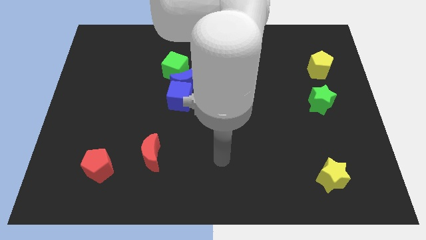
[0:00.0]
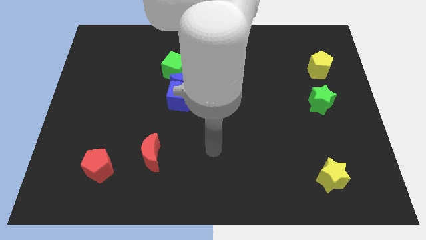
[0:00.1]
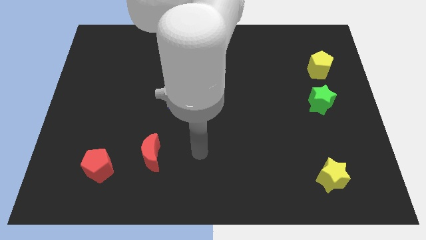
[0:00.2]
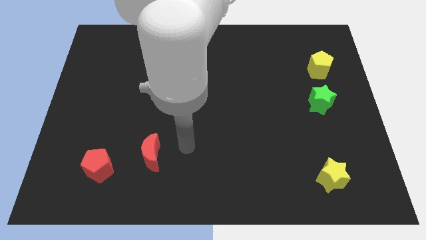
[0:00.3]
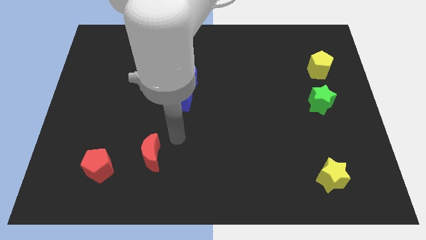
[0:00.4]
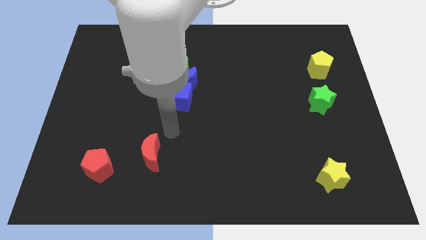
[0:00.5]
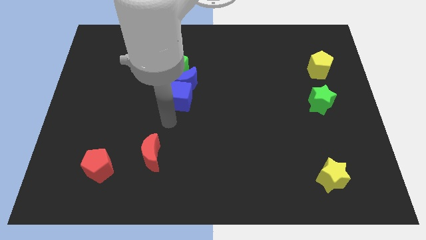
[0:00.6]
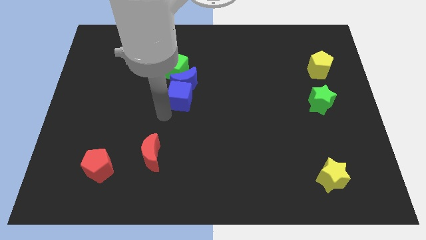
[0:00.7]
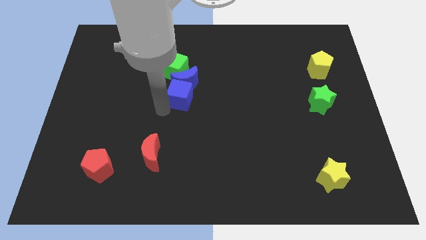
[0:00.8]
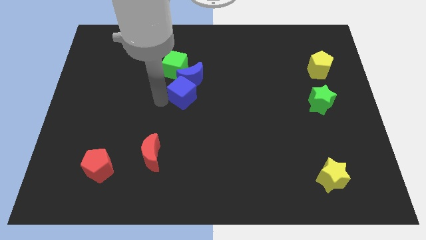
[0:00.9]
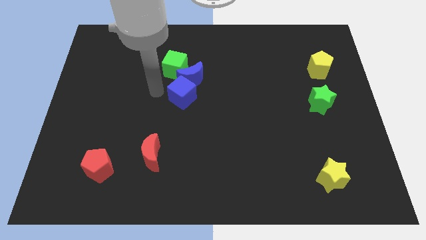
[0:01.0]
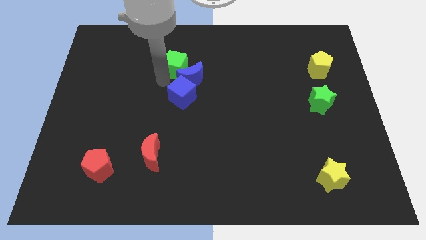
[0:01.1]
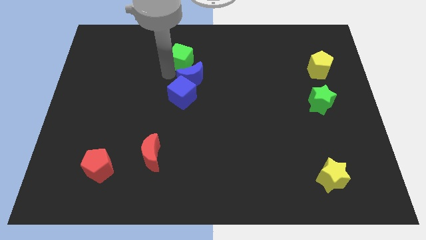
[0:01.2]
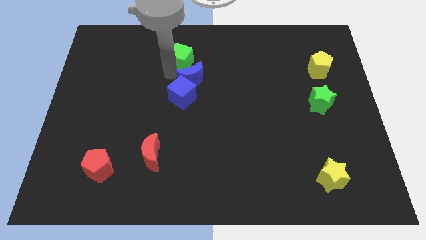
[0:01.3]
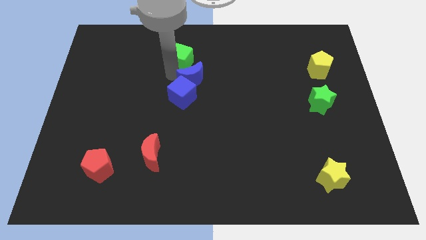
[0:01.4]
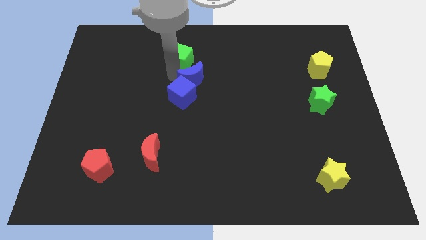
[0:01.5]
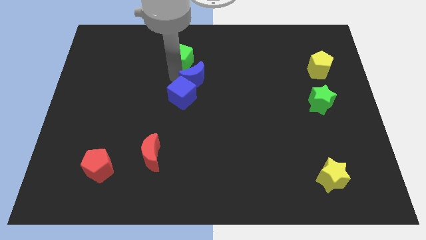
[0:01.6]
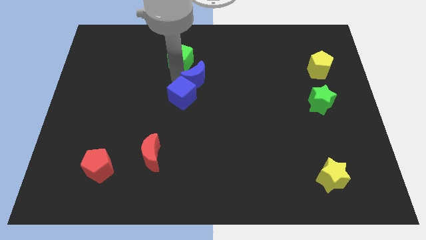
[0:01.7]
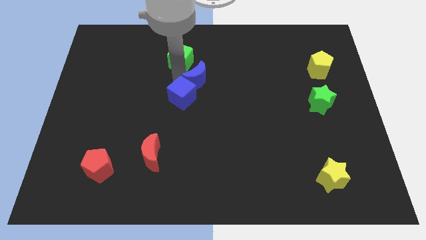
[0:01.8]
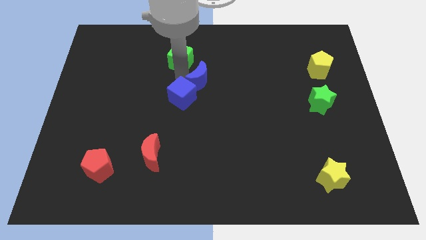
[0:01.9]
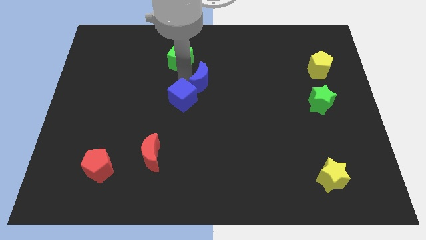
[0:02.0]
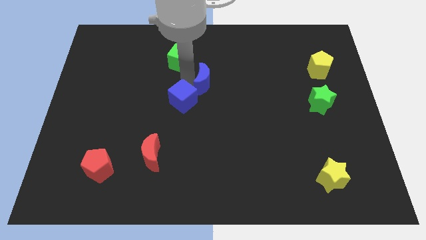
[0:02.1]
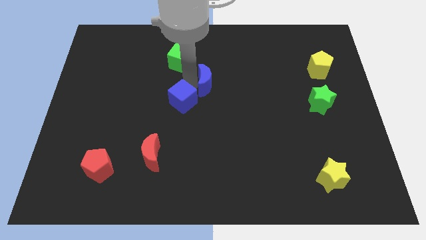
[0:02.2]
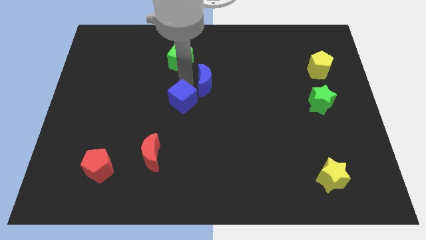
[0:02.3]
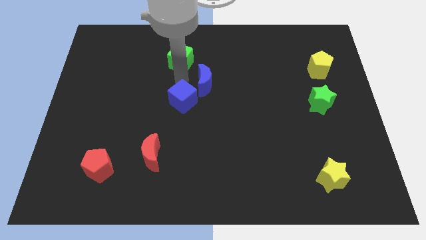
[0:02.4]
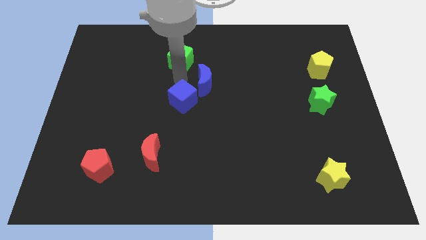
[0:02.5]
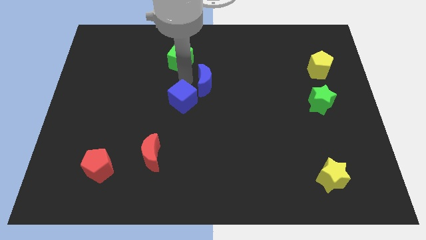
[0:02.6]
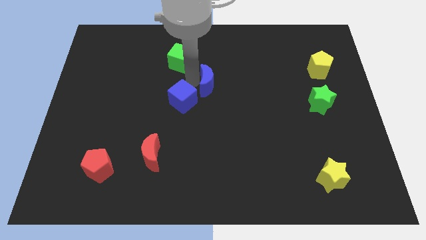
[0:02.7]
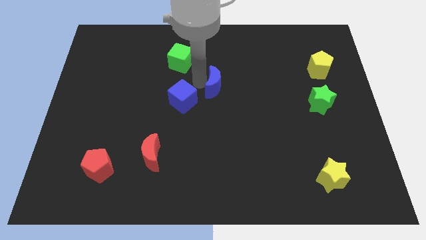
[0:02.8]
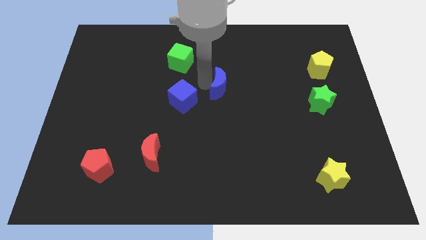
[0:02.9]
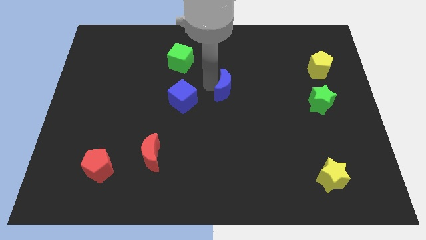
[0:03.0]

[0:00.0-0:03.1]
move the blue moon away from the blue cube and green cube

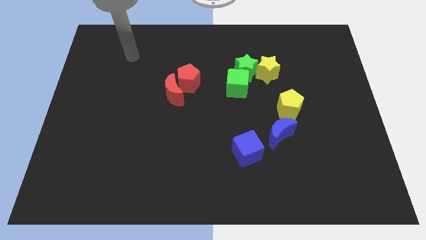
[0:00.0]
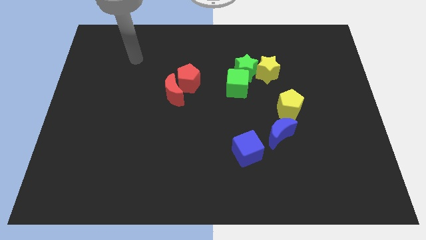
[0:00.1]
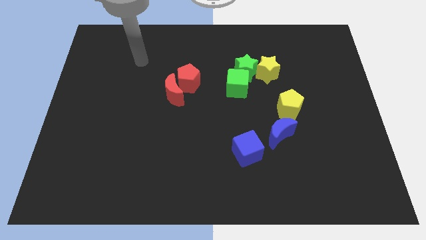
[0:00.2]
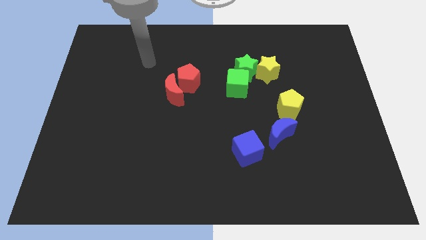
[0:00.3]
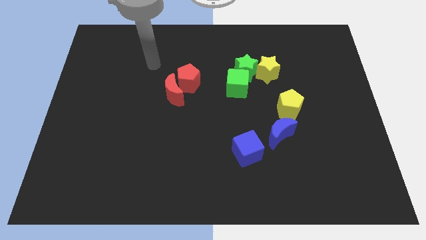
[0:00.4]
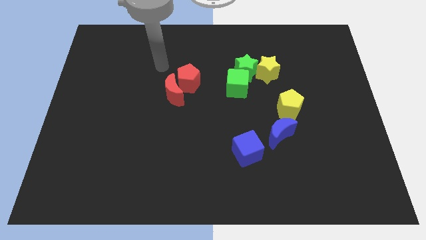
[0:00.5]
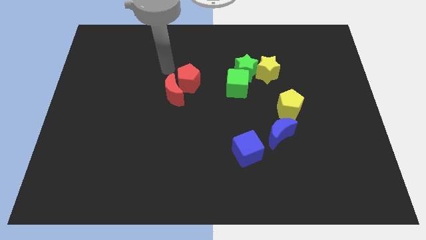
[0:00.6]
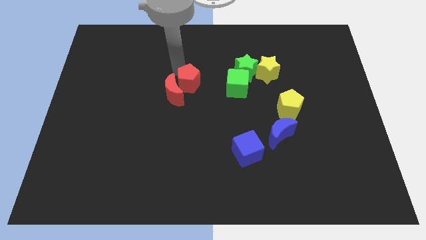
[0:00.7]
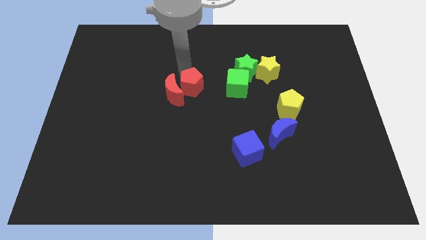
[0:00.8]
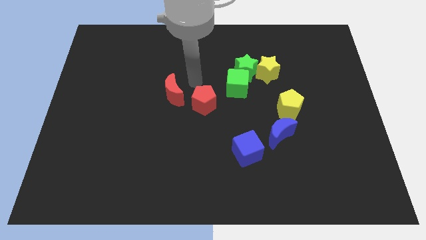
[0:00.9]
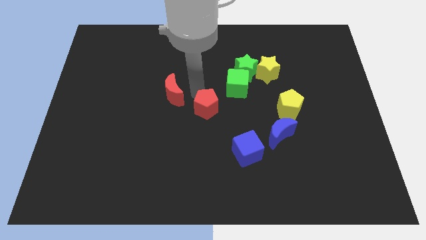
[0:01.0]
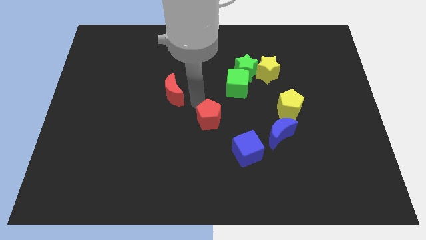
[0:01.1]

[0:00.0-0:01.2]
pull the red moon apart from the red pentagon

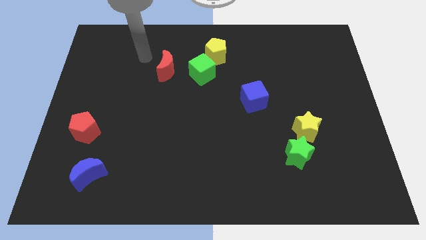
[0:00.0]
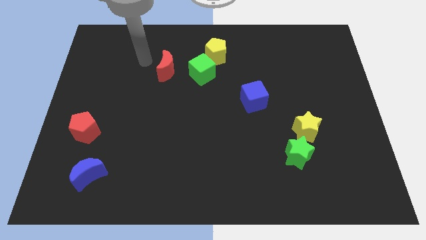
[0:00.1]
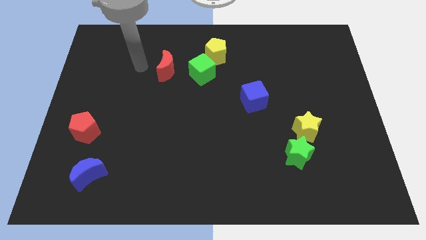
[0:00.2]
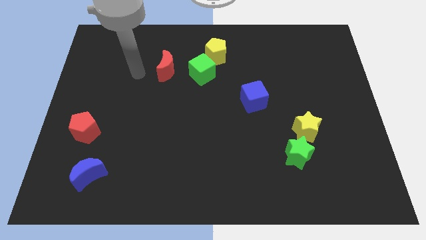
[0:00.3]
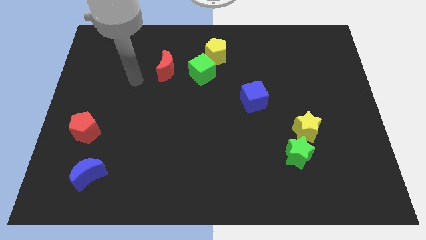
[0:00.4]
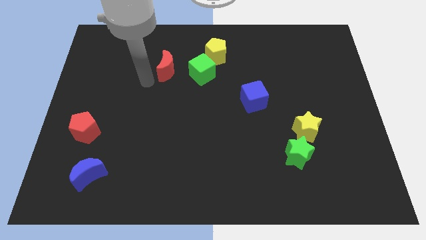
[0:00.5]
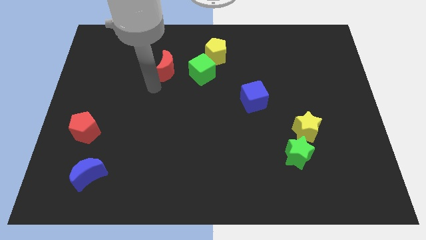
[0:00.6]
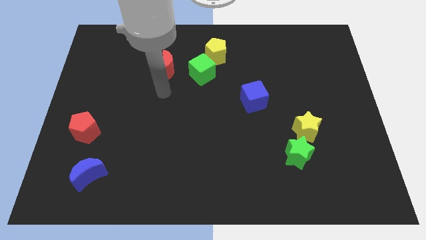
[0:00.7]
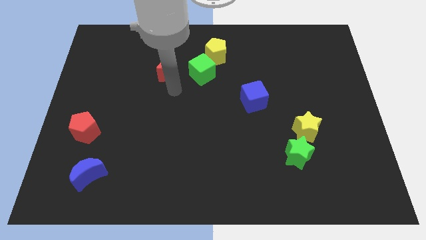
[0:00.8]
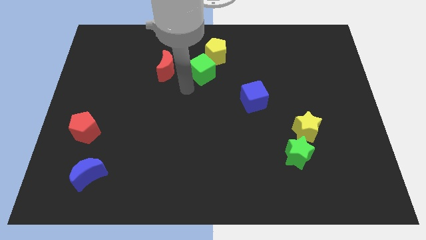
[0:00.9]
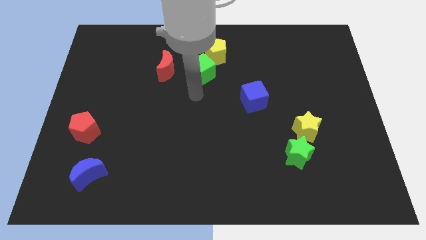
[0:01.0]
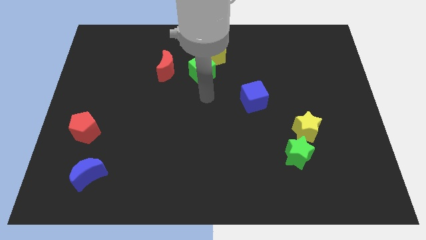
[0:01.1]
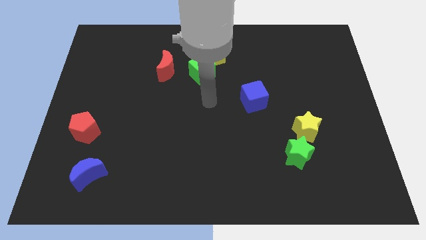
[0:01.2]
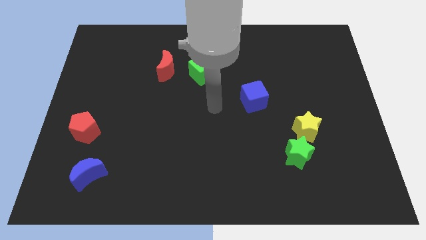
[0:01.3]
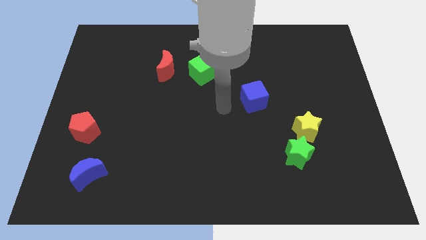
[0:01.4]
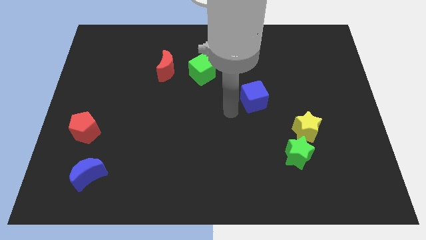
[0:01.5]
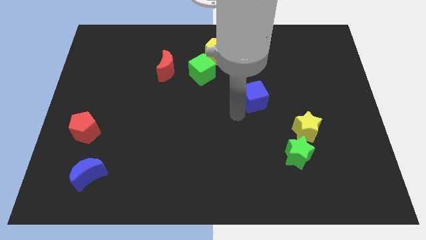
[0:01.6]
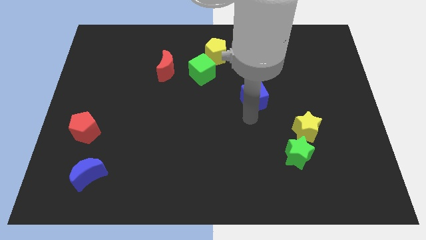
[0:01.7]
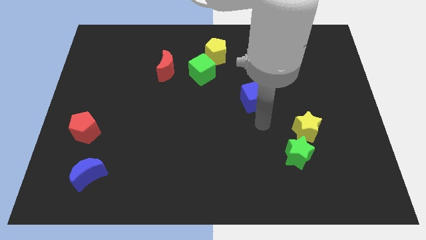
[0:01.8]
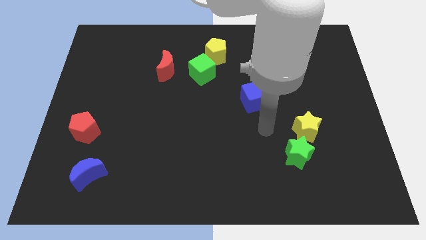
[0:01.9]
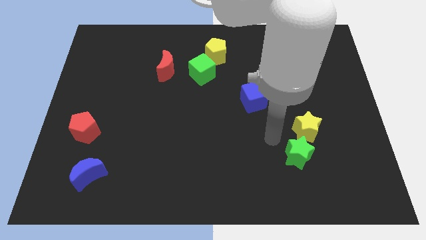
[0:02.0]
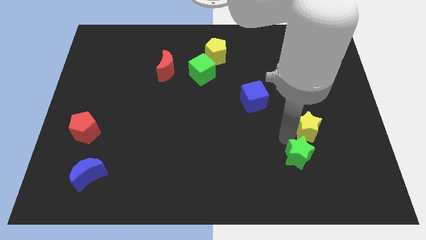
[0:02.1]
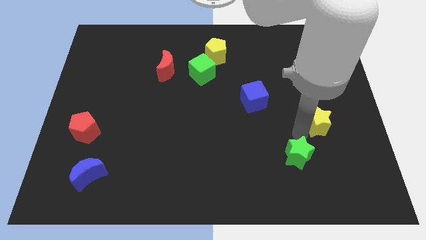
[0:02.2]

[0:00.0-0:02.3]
pull the green star apart from the yellow star

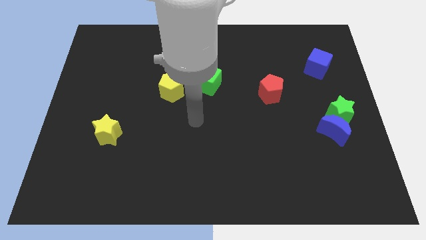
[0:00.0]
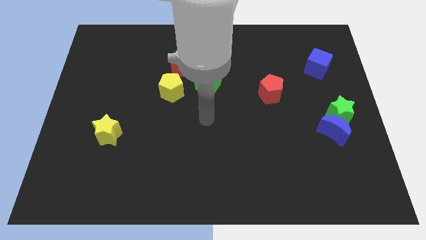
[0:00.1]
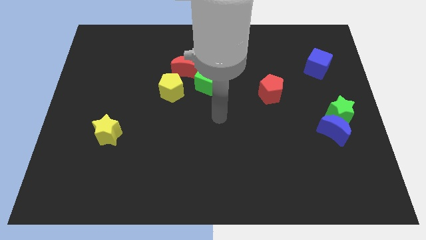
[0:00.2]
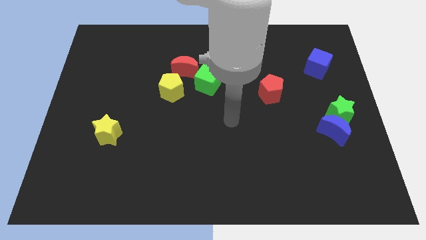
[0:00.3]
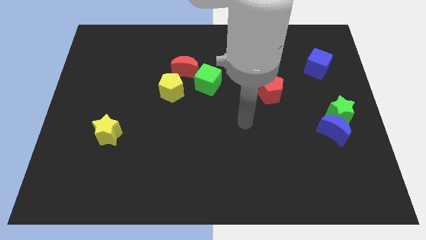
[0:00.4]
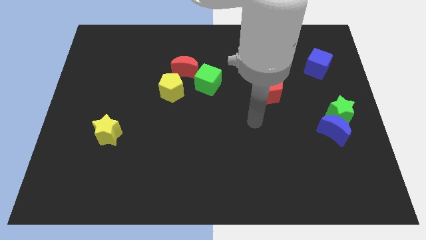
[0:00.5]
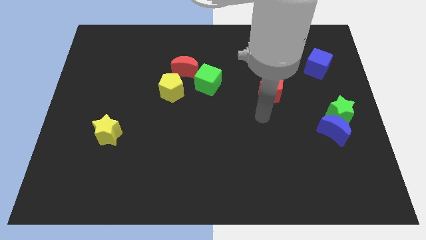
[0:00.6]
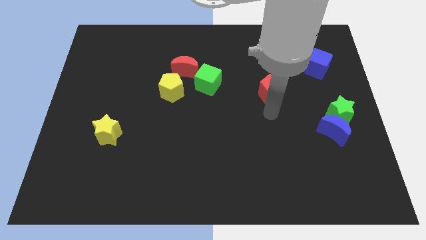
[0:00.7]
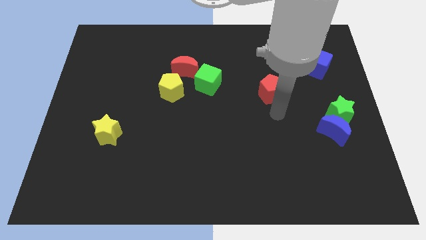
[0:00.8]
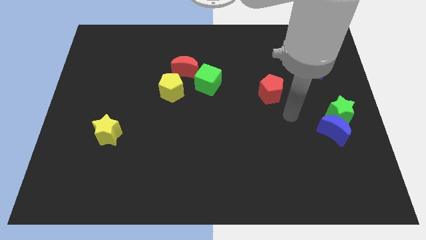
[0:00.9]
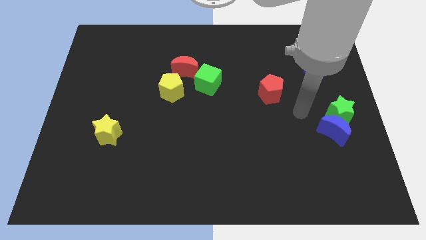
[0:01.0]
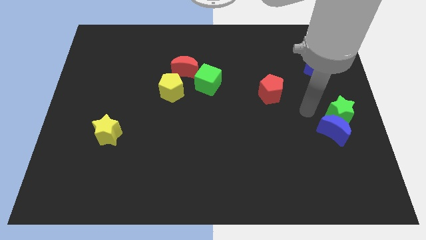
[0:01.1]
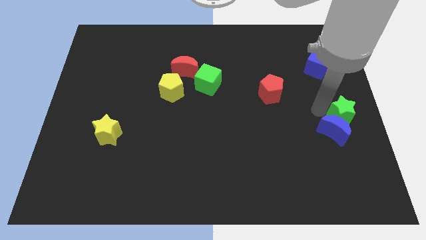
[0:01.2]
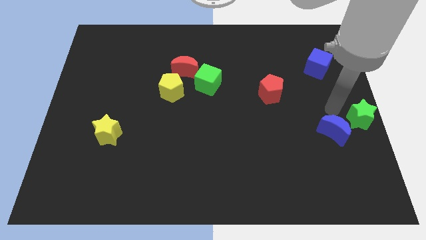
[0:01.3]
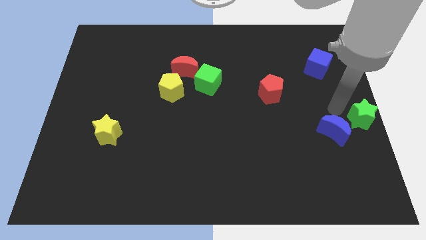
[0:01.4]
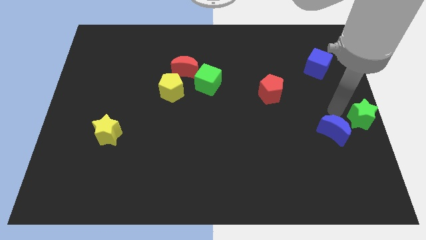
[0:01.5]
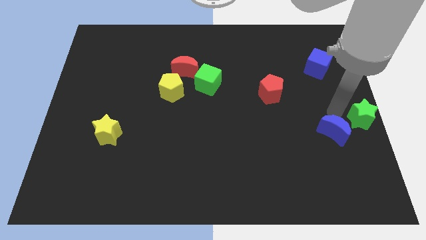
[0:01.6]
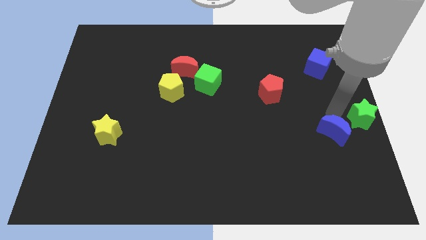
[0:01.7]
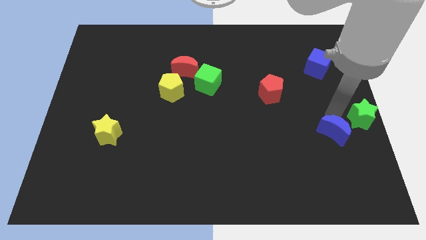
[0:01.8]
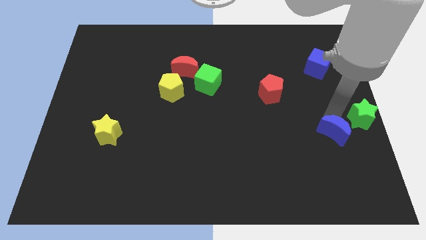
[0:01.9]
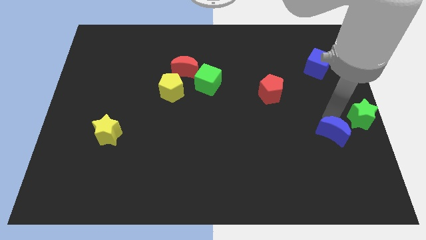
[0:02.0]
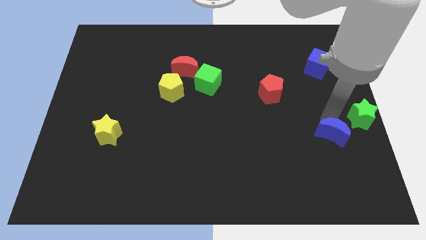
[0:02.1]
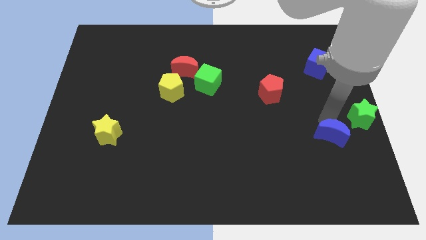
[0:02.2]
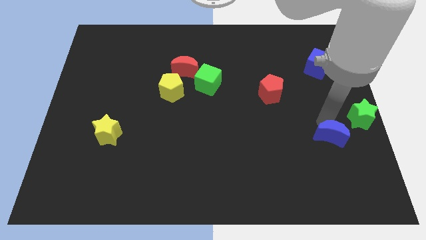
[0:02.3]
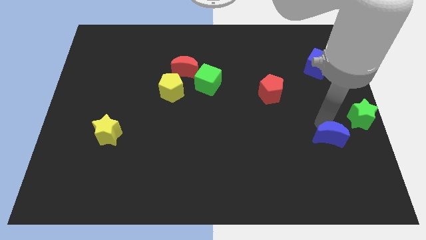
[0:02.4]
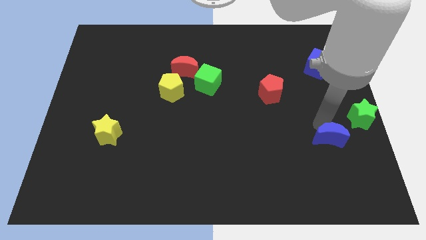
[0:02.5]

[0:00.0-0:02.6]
separate the blue moon from the green star

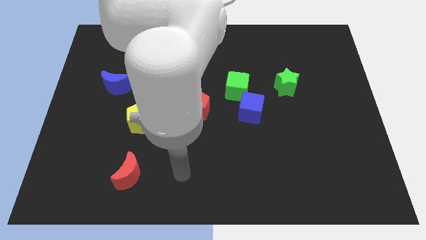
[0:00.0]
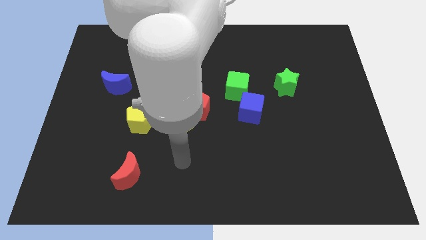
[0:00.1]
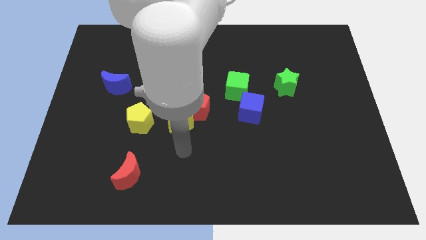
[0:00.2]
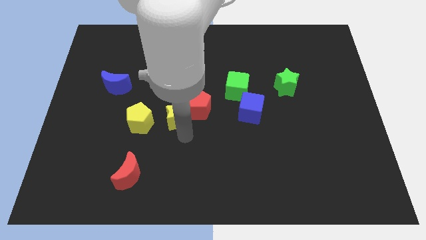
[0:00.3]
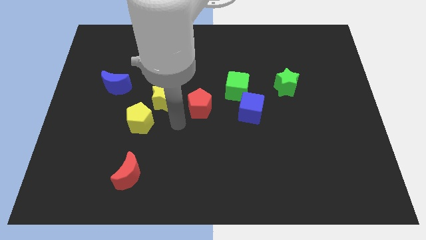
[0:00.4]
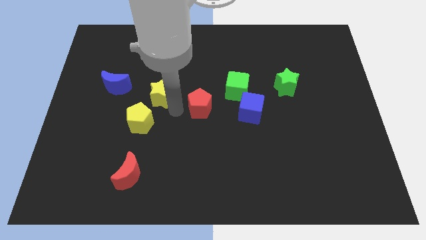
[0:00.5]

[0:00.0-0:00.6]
move the red pentagon away from the yellow star
